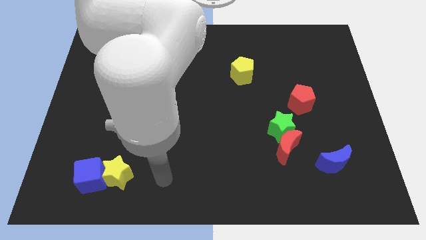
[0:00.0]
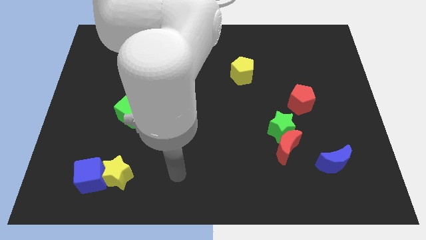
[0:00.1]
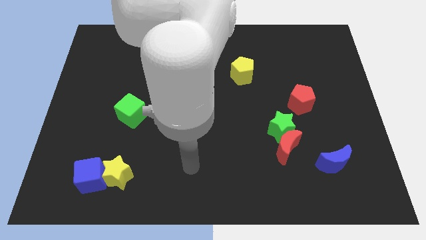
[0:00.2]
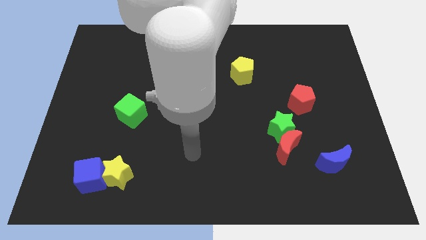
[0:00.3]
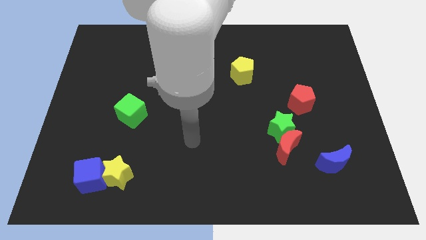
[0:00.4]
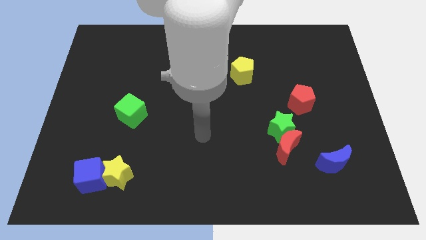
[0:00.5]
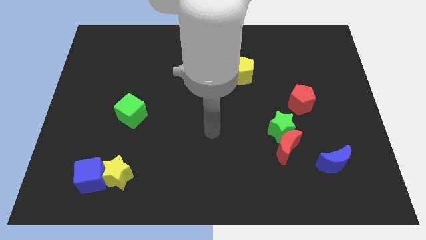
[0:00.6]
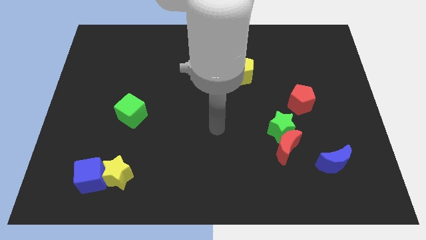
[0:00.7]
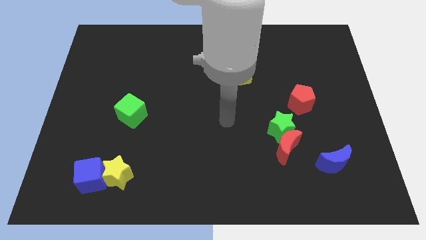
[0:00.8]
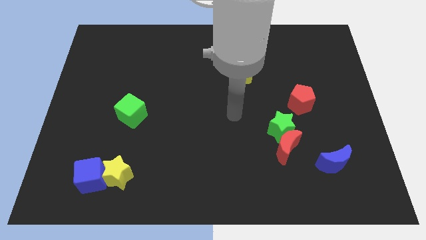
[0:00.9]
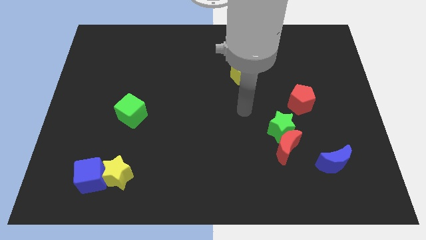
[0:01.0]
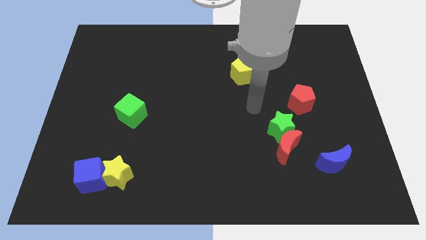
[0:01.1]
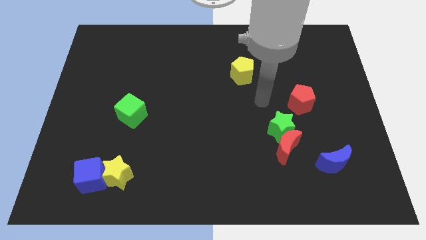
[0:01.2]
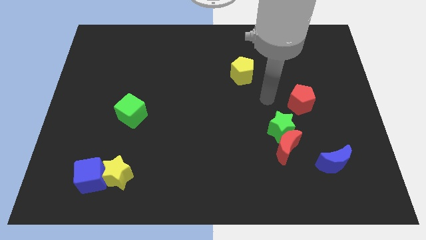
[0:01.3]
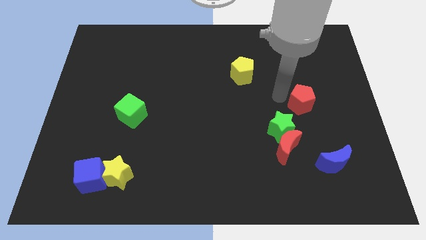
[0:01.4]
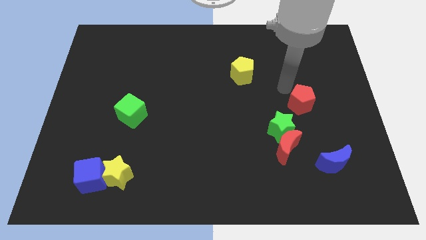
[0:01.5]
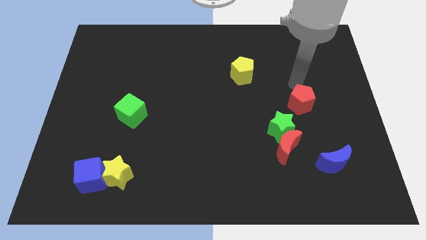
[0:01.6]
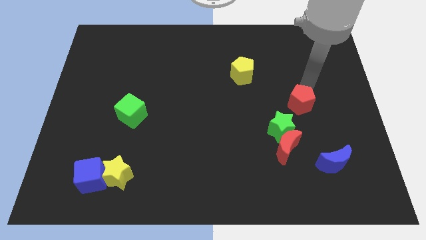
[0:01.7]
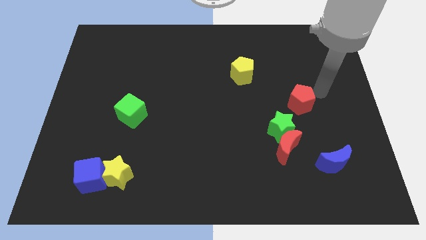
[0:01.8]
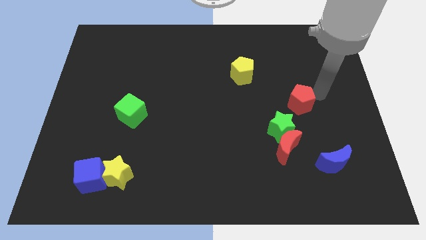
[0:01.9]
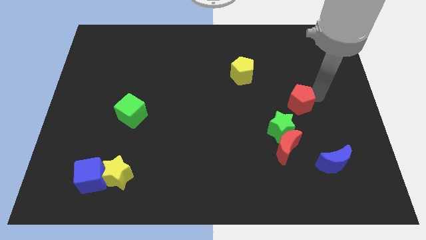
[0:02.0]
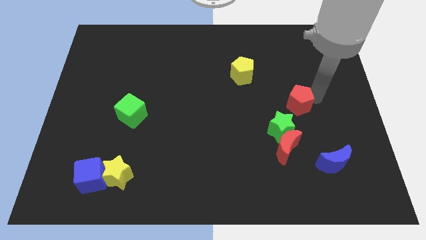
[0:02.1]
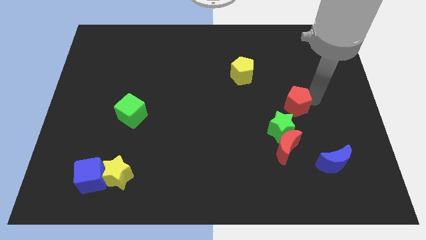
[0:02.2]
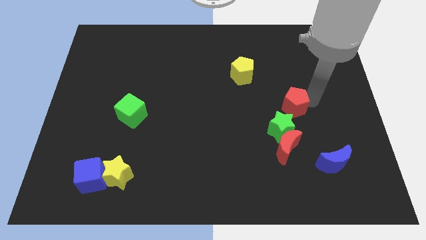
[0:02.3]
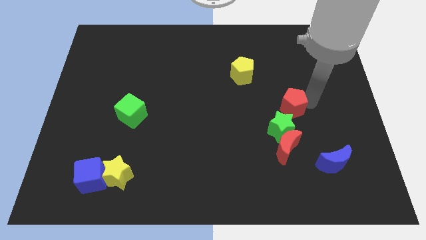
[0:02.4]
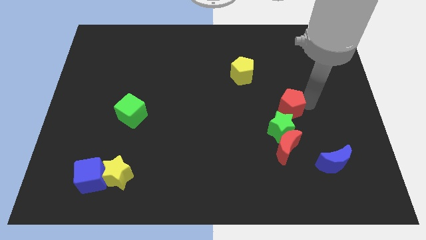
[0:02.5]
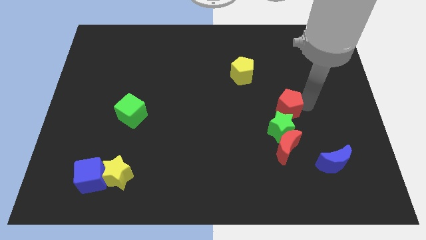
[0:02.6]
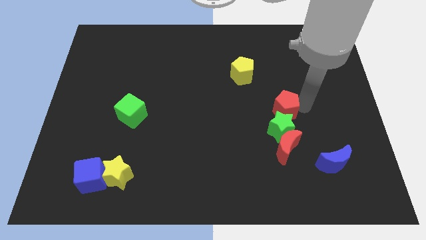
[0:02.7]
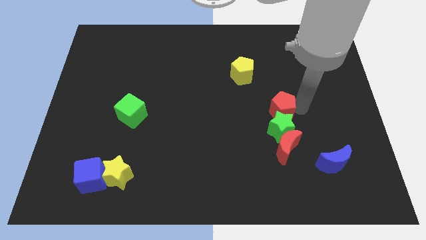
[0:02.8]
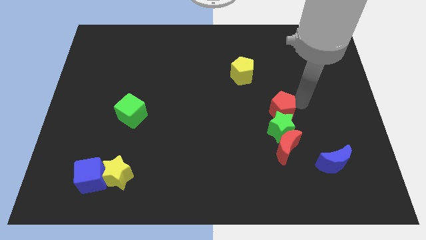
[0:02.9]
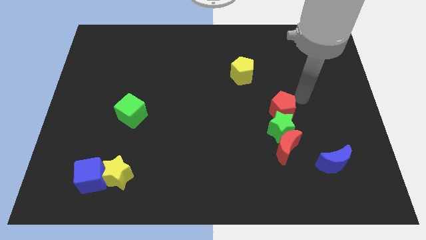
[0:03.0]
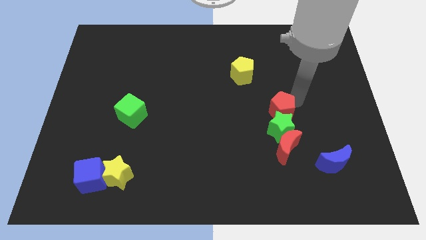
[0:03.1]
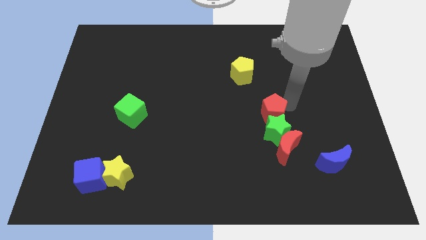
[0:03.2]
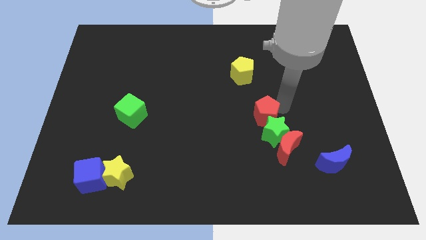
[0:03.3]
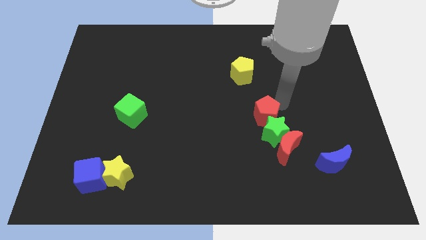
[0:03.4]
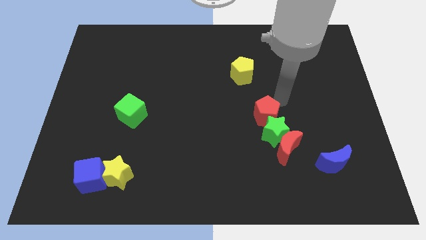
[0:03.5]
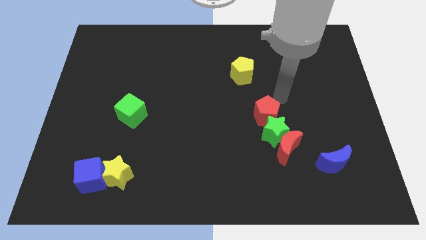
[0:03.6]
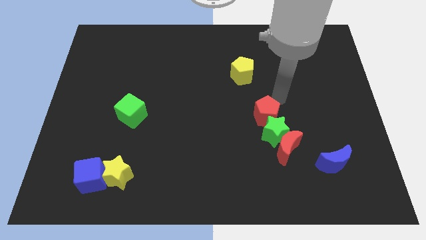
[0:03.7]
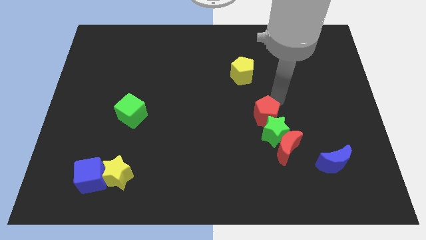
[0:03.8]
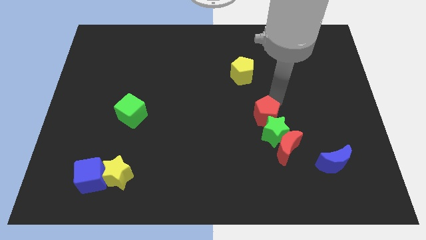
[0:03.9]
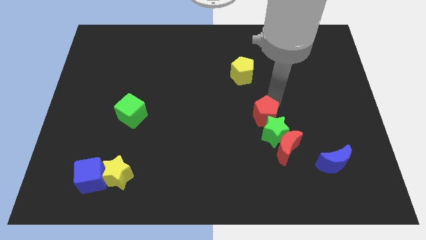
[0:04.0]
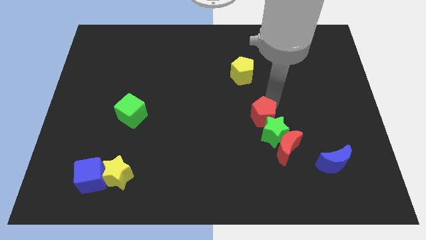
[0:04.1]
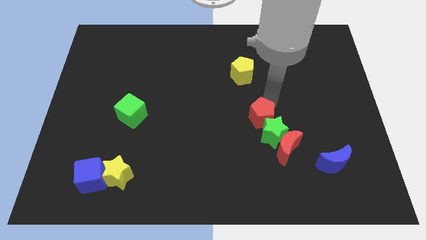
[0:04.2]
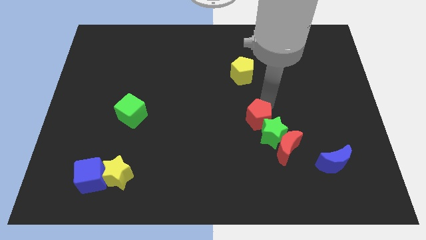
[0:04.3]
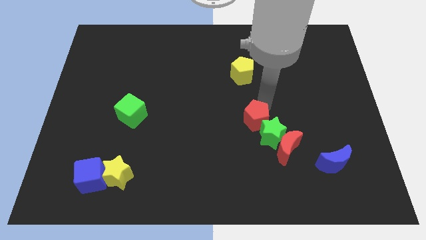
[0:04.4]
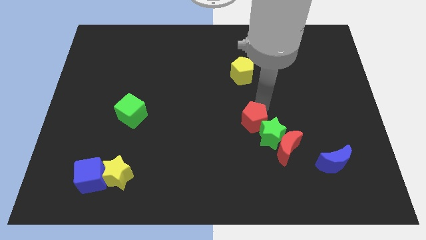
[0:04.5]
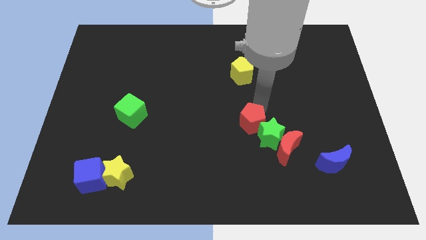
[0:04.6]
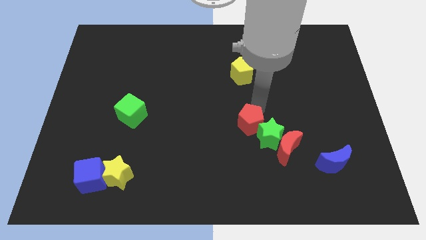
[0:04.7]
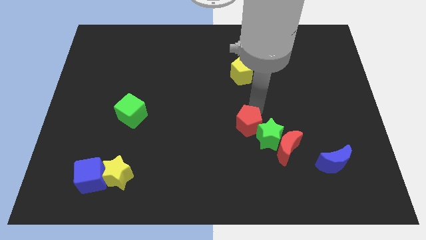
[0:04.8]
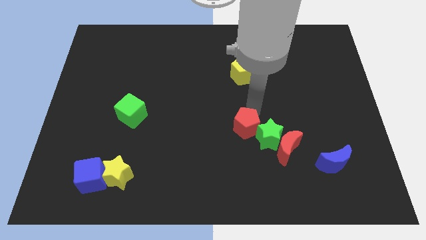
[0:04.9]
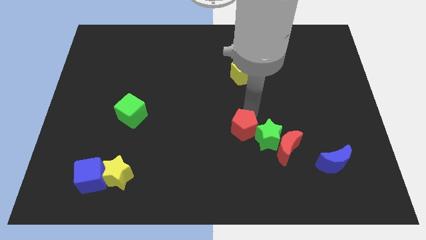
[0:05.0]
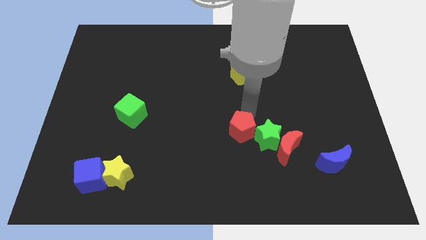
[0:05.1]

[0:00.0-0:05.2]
put the red pentagon just left of the red moon

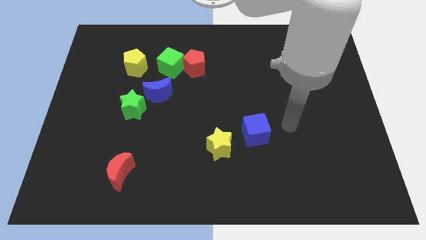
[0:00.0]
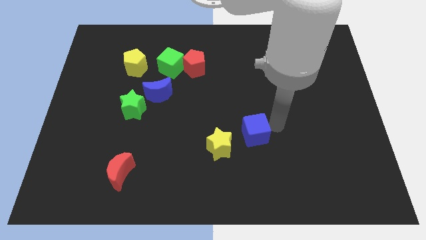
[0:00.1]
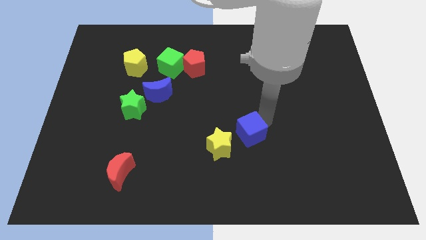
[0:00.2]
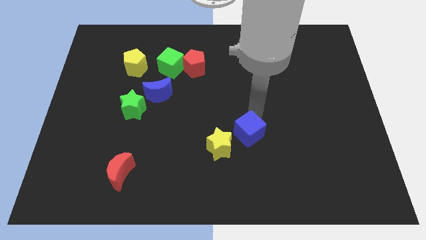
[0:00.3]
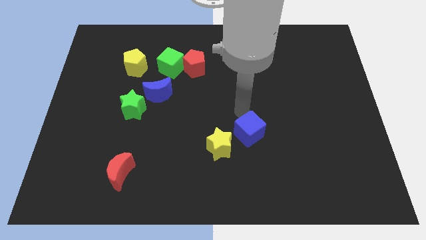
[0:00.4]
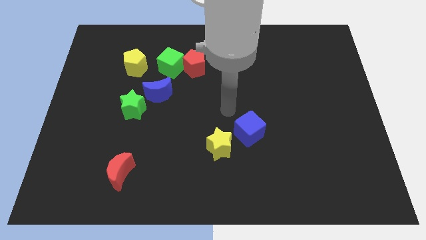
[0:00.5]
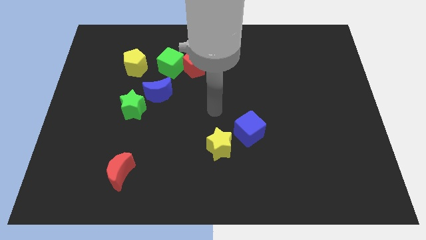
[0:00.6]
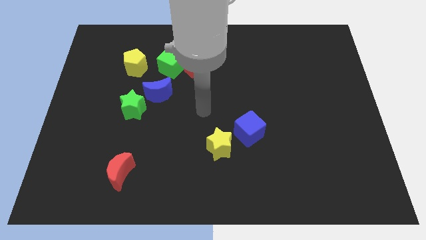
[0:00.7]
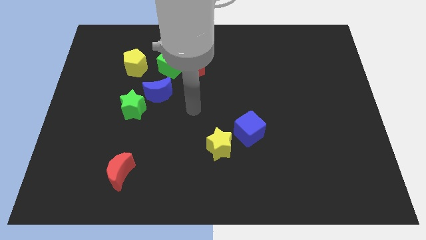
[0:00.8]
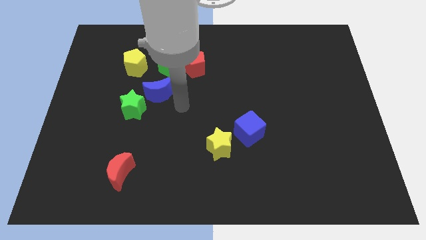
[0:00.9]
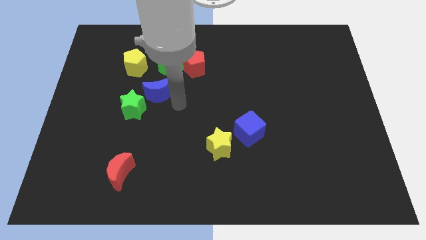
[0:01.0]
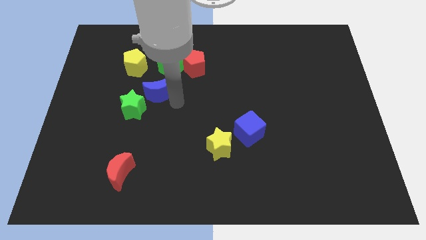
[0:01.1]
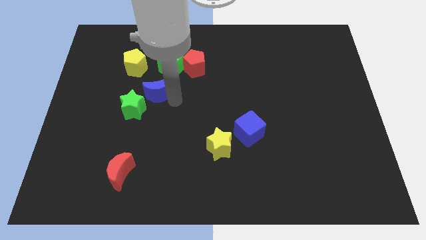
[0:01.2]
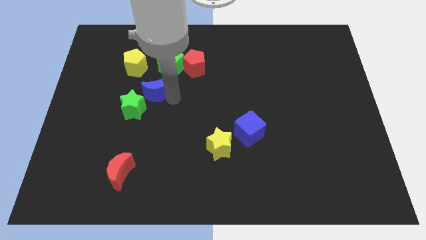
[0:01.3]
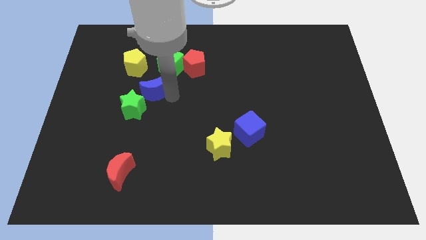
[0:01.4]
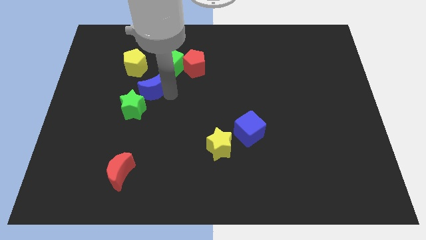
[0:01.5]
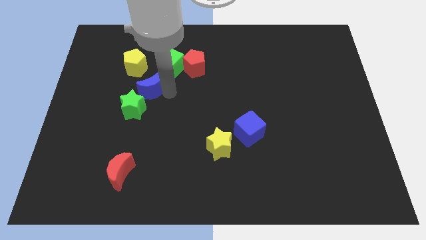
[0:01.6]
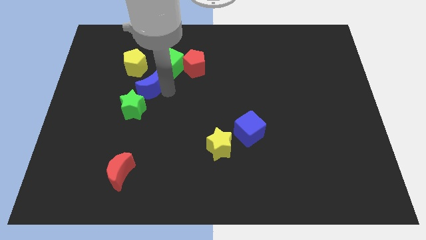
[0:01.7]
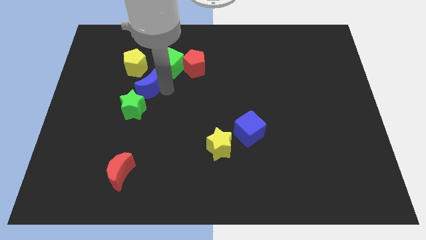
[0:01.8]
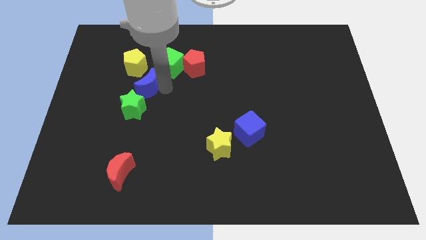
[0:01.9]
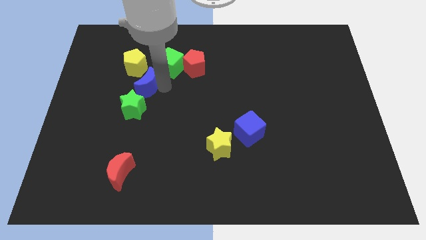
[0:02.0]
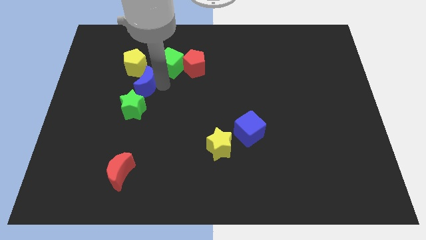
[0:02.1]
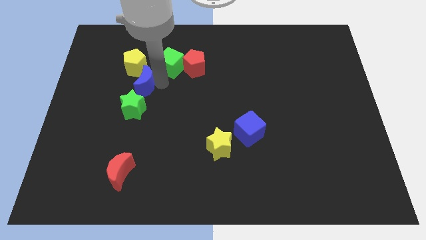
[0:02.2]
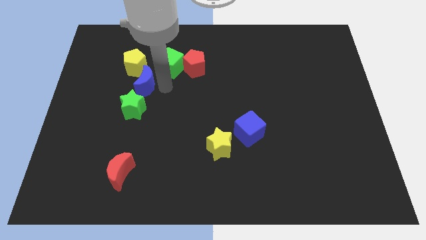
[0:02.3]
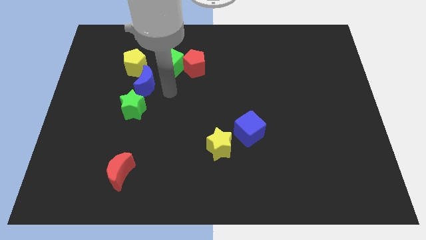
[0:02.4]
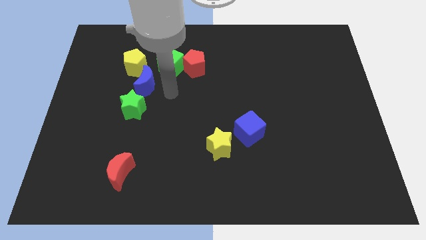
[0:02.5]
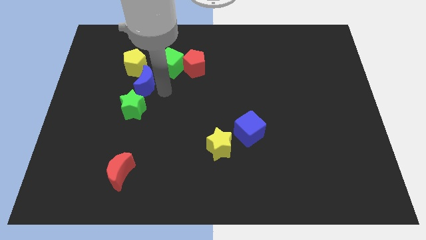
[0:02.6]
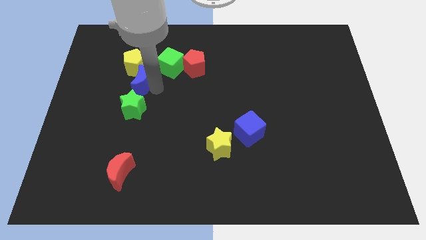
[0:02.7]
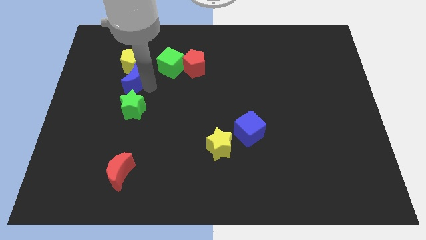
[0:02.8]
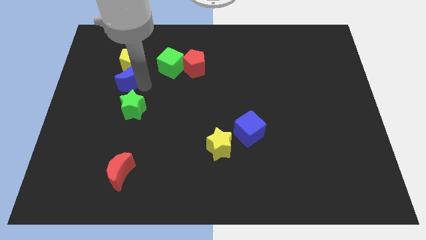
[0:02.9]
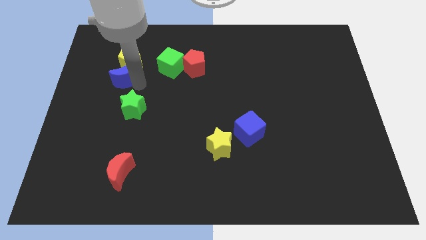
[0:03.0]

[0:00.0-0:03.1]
push the blue moon to the left side of the green cube
